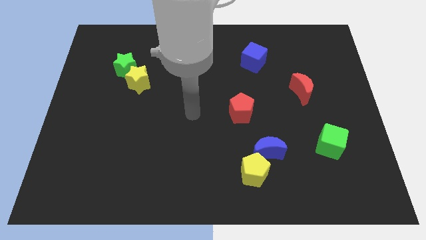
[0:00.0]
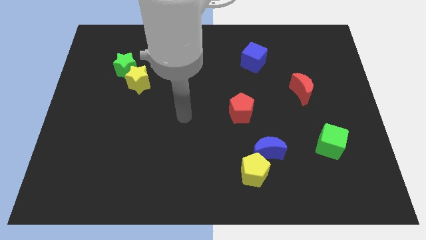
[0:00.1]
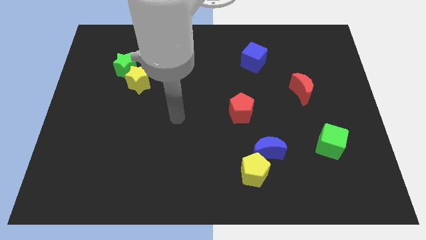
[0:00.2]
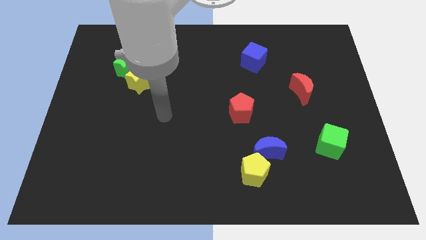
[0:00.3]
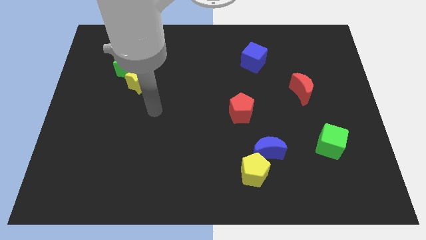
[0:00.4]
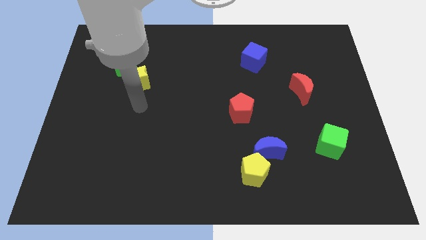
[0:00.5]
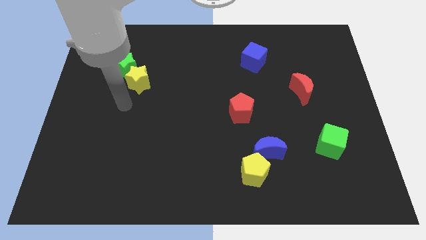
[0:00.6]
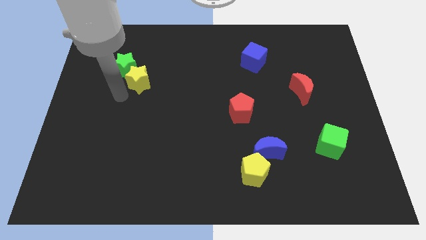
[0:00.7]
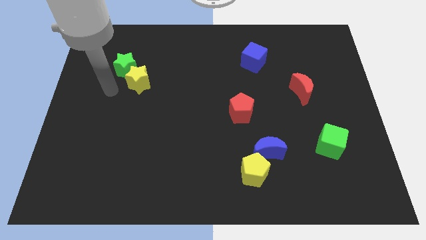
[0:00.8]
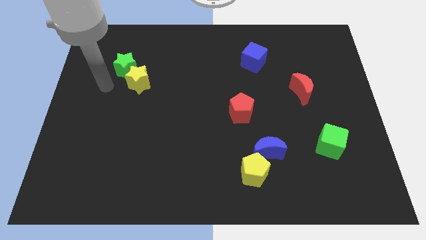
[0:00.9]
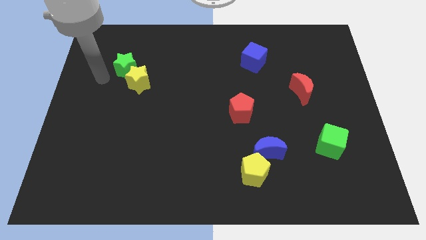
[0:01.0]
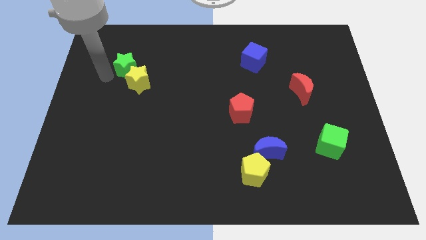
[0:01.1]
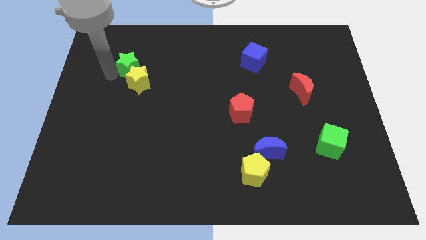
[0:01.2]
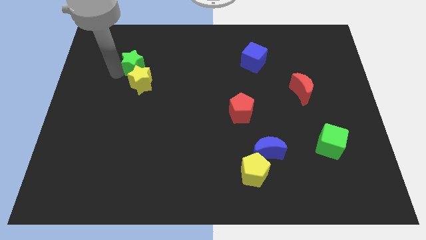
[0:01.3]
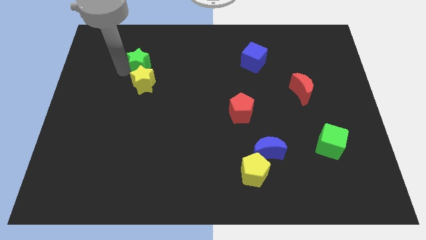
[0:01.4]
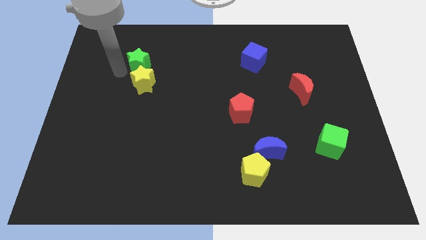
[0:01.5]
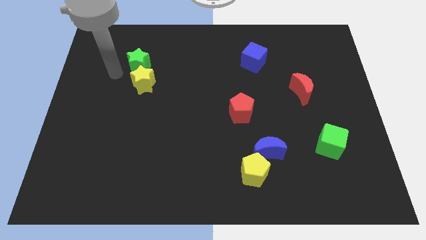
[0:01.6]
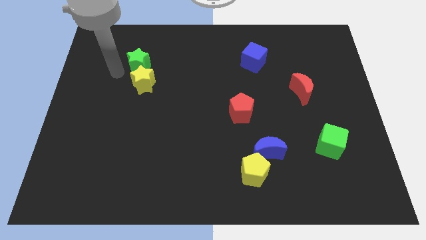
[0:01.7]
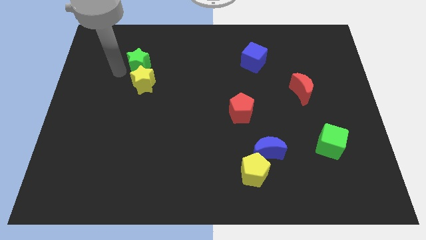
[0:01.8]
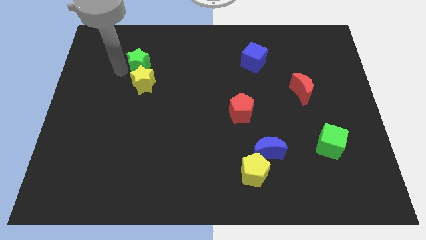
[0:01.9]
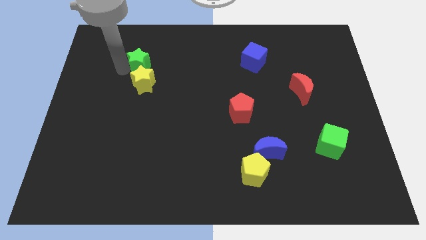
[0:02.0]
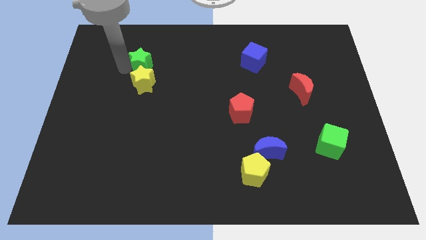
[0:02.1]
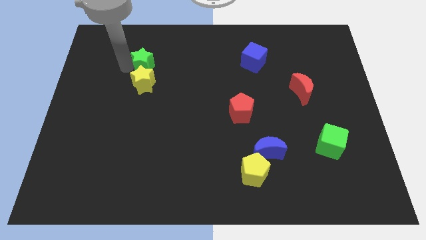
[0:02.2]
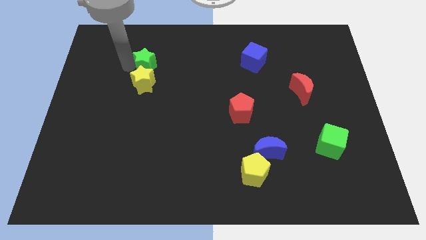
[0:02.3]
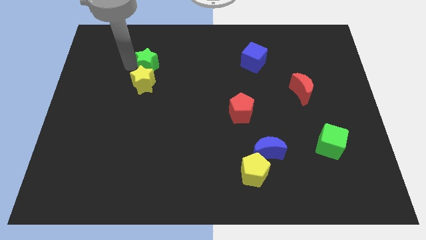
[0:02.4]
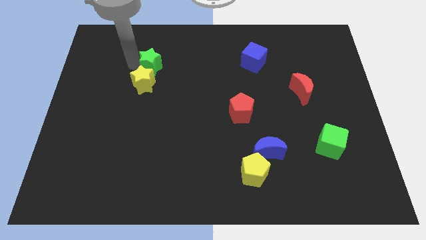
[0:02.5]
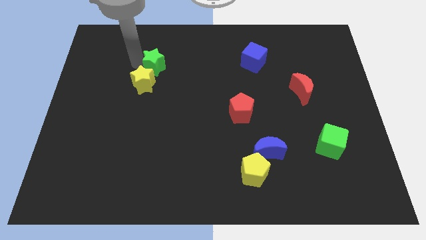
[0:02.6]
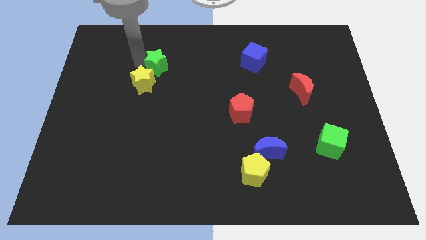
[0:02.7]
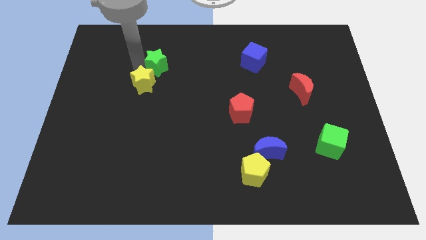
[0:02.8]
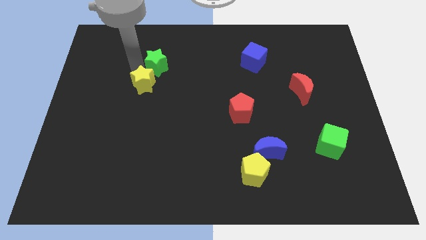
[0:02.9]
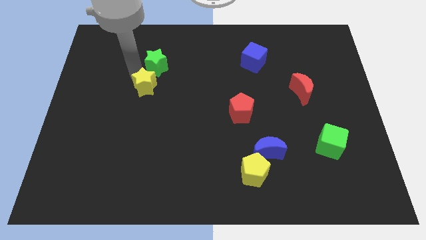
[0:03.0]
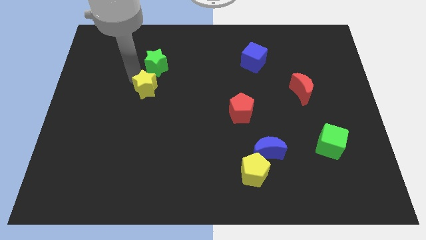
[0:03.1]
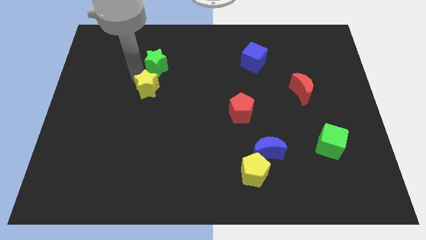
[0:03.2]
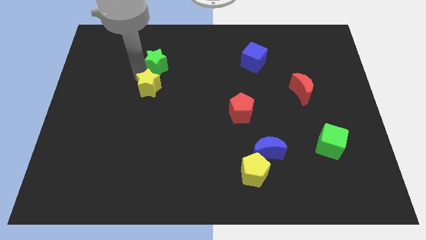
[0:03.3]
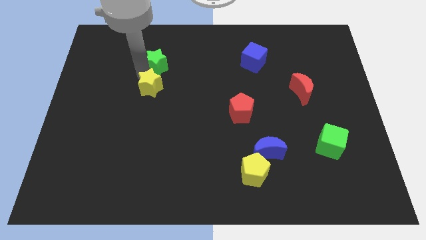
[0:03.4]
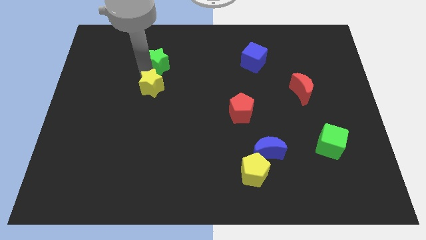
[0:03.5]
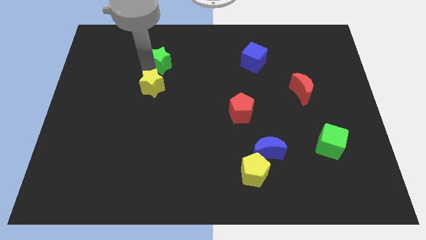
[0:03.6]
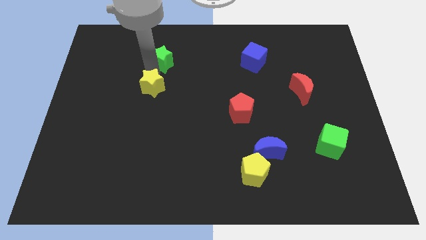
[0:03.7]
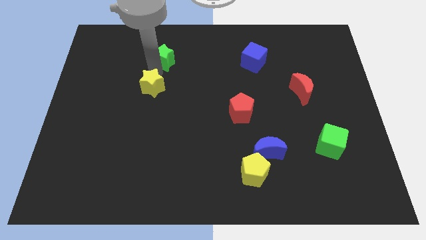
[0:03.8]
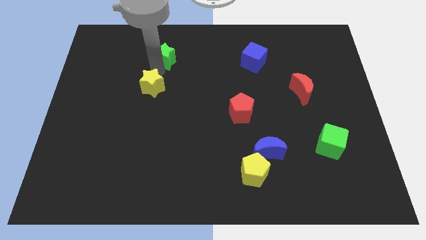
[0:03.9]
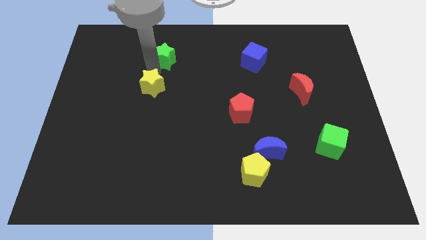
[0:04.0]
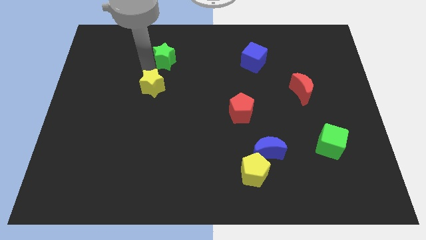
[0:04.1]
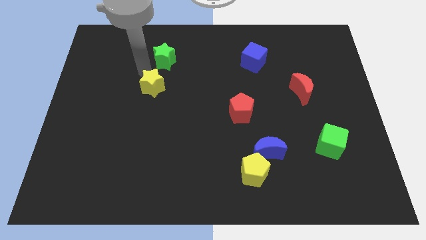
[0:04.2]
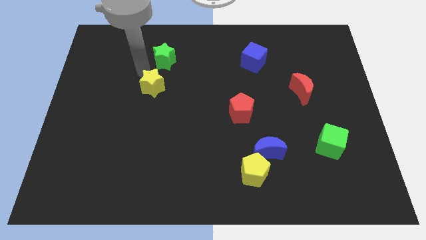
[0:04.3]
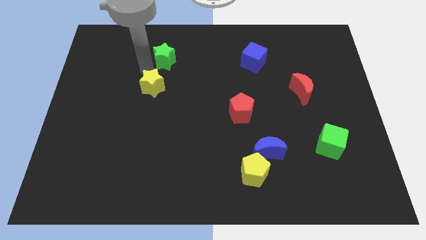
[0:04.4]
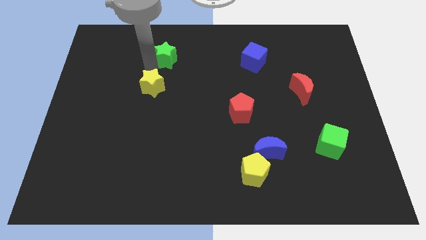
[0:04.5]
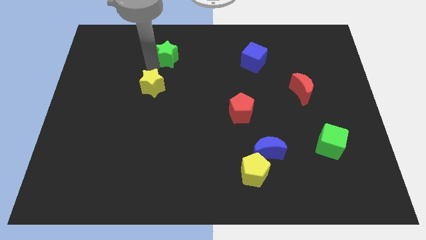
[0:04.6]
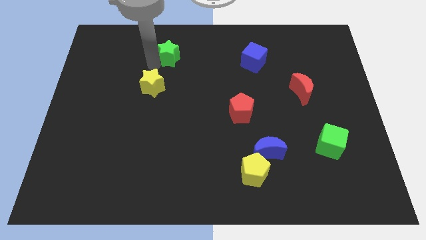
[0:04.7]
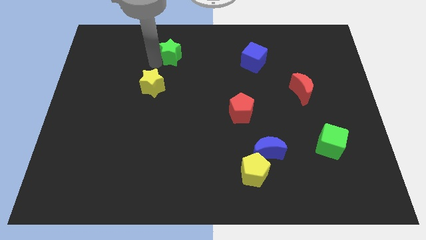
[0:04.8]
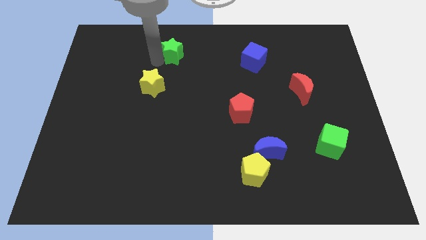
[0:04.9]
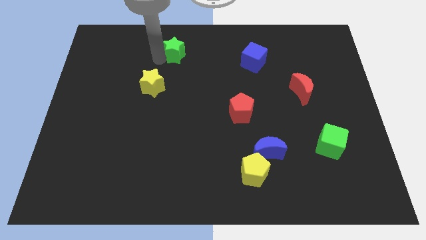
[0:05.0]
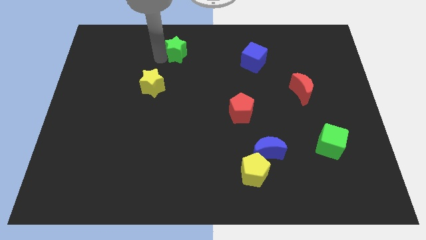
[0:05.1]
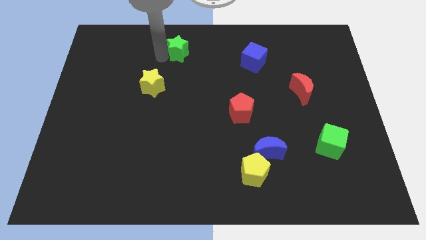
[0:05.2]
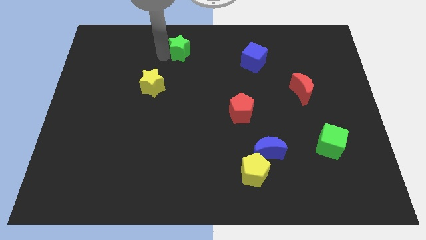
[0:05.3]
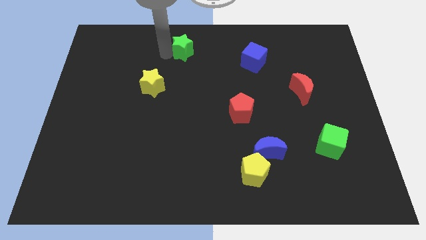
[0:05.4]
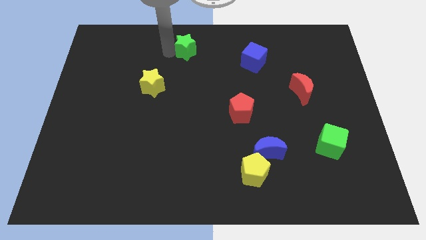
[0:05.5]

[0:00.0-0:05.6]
put the green star to the top

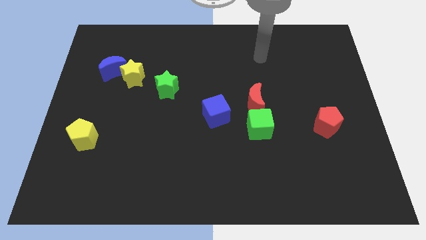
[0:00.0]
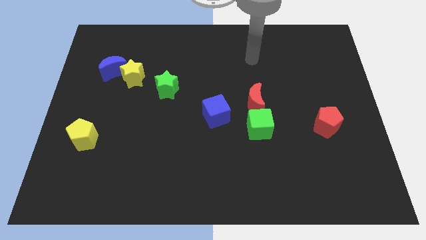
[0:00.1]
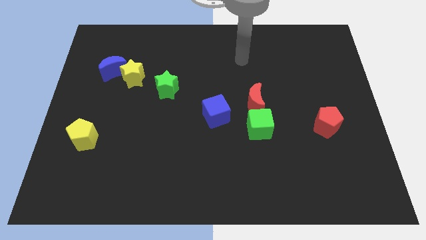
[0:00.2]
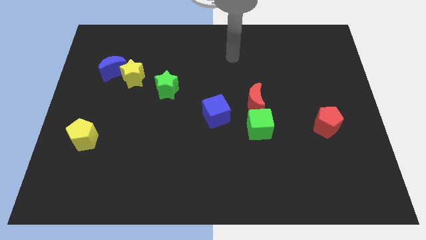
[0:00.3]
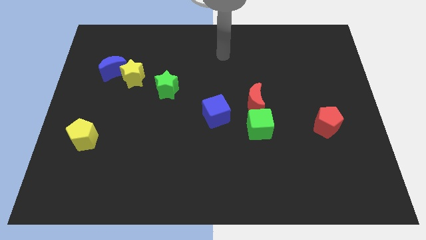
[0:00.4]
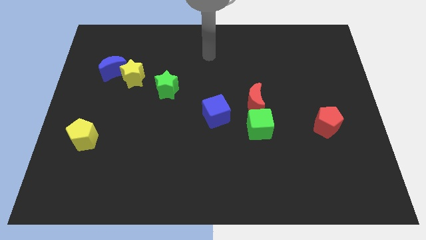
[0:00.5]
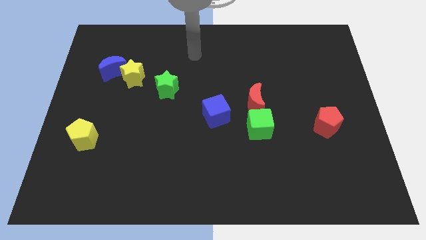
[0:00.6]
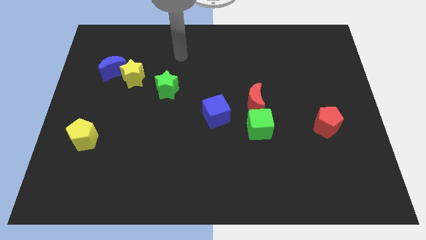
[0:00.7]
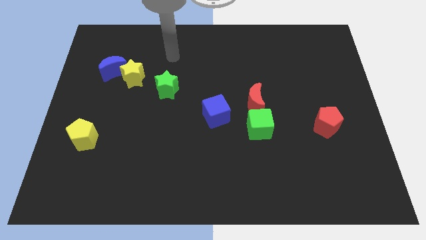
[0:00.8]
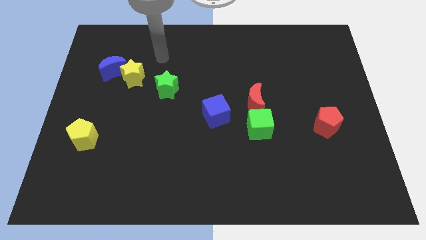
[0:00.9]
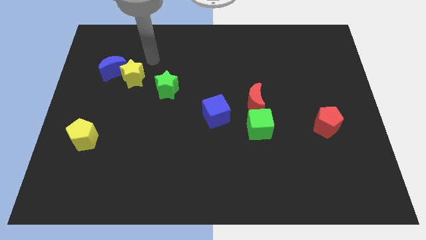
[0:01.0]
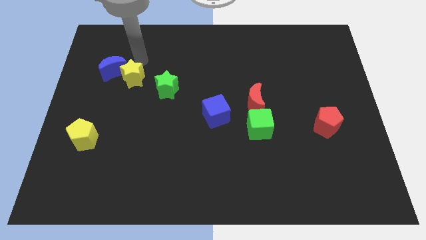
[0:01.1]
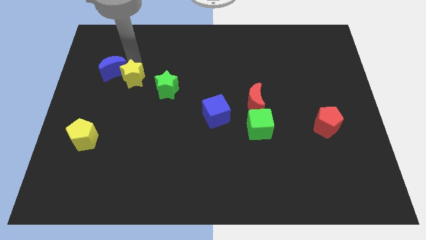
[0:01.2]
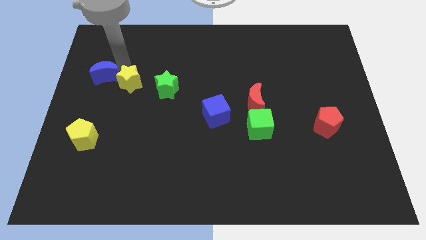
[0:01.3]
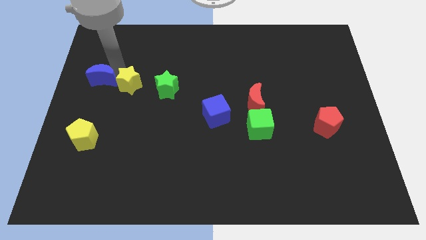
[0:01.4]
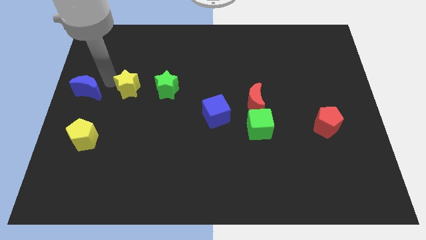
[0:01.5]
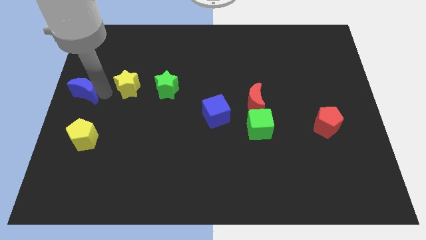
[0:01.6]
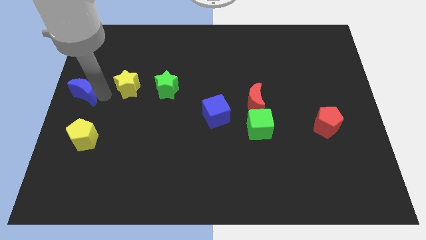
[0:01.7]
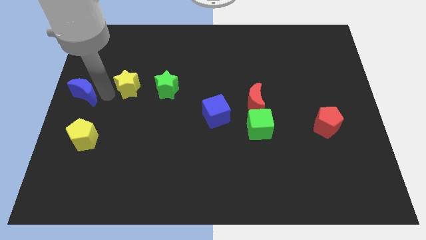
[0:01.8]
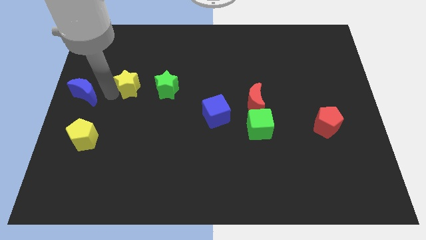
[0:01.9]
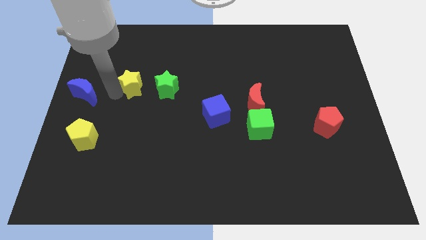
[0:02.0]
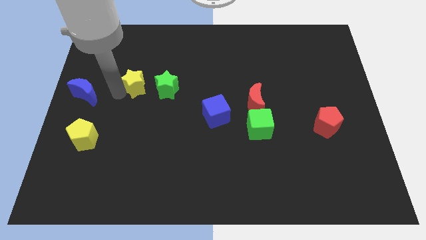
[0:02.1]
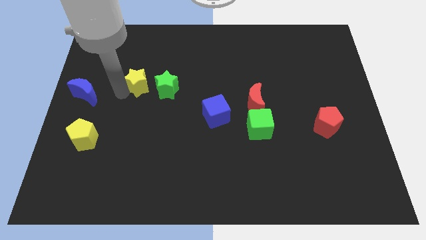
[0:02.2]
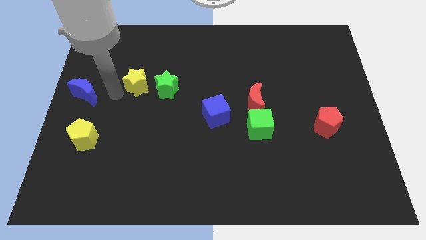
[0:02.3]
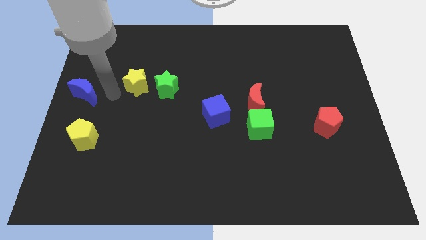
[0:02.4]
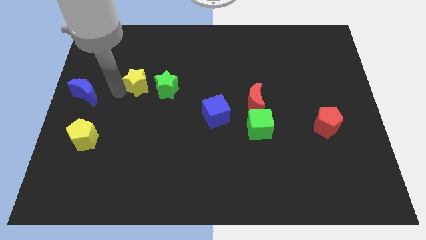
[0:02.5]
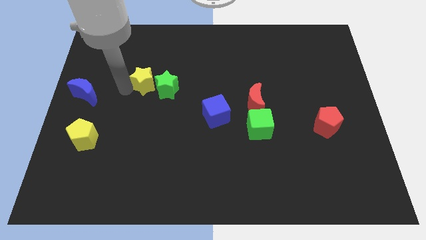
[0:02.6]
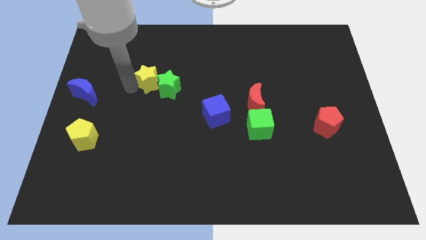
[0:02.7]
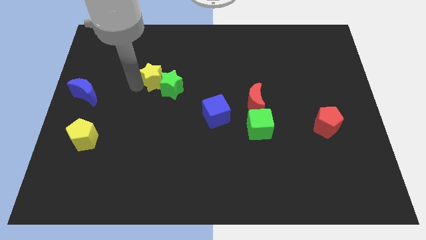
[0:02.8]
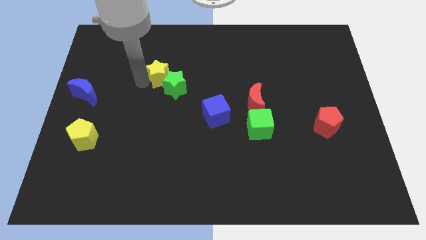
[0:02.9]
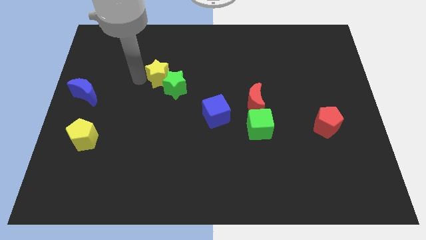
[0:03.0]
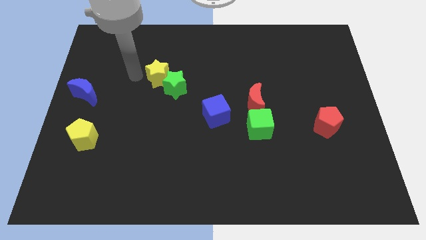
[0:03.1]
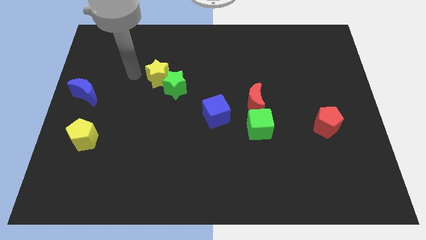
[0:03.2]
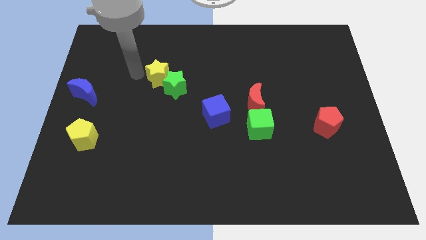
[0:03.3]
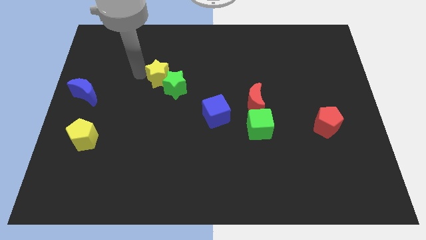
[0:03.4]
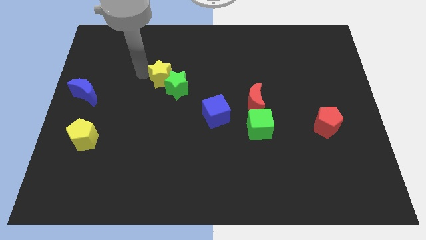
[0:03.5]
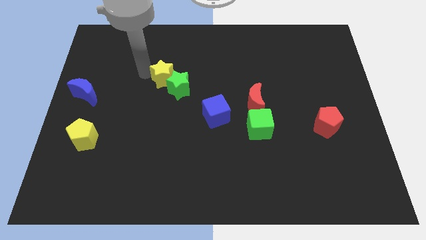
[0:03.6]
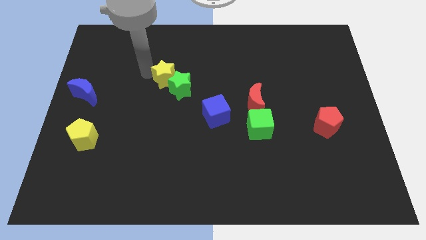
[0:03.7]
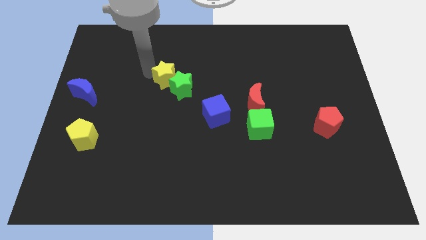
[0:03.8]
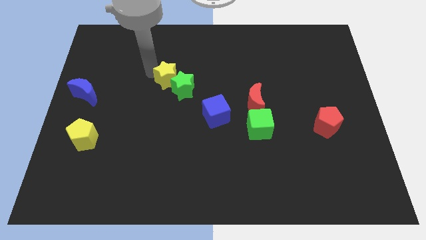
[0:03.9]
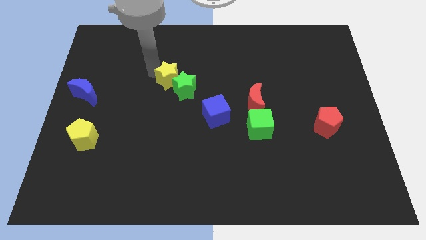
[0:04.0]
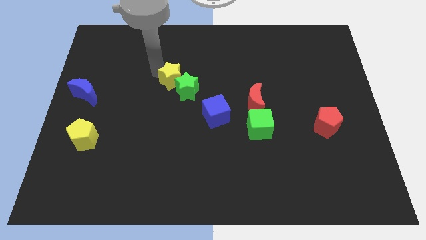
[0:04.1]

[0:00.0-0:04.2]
put the yellow star to the center
